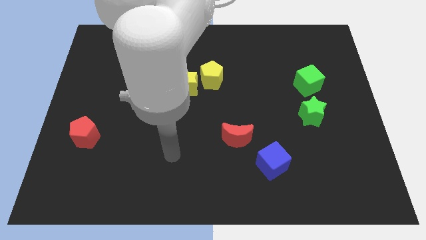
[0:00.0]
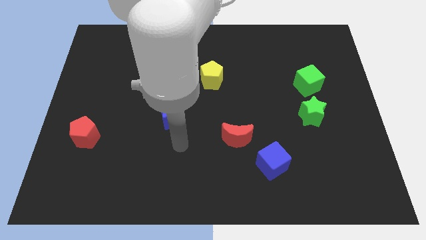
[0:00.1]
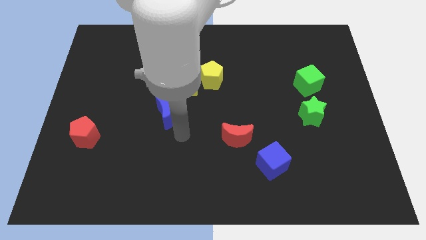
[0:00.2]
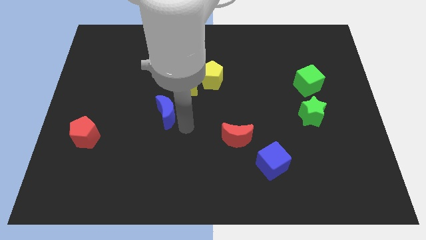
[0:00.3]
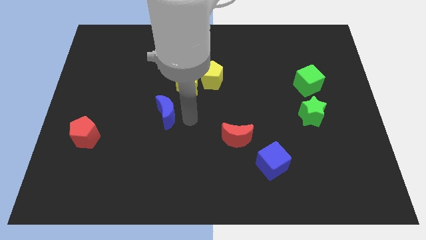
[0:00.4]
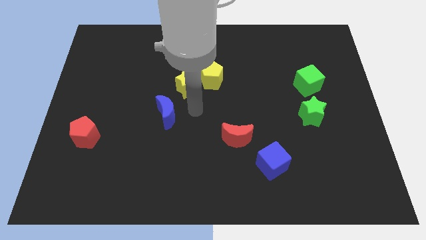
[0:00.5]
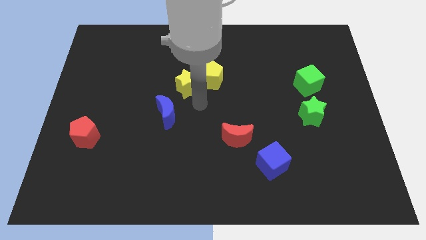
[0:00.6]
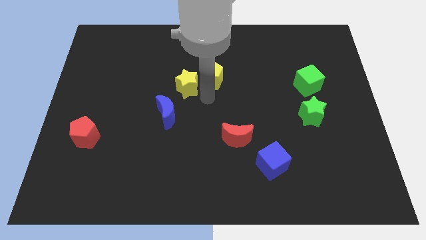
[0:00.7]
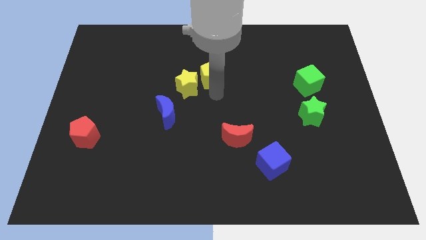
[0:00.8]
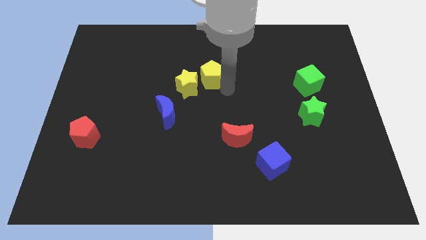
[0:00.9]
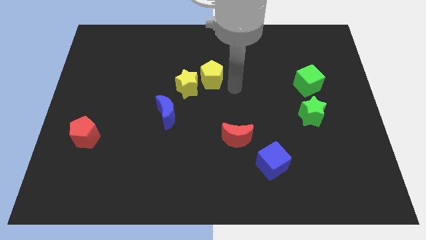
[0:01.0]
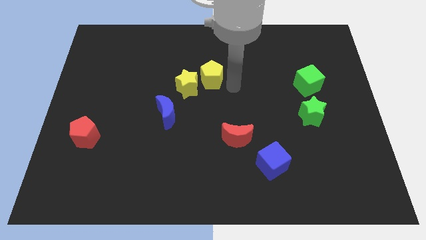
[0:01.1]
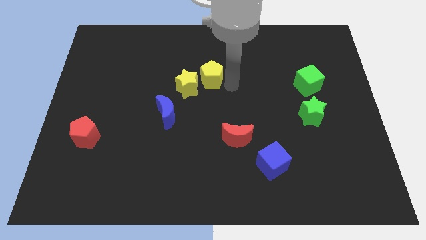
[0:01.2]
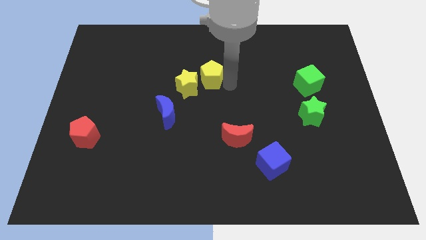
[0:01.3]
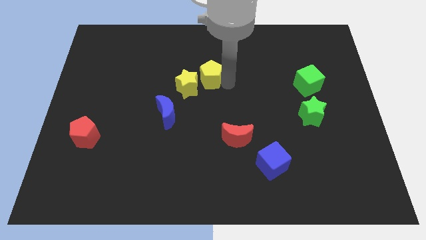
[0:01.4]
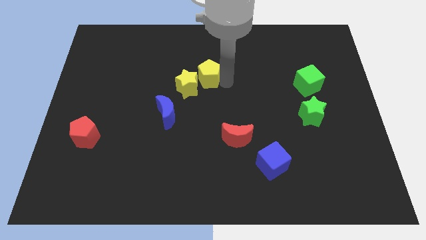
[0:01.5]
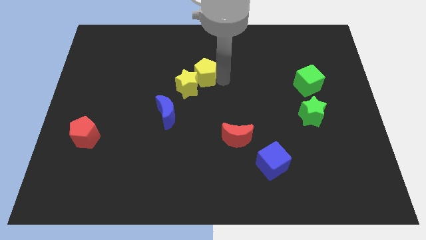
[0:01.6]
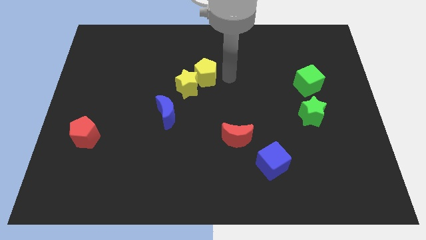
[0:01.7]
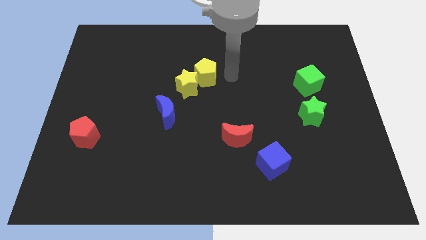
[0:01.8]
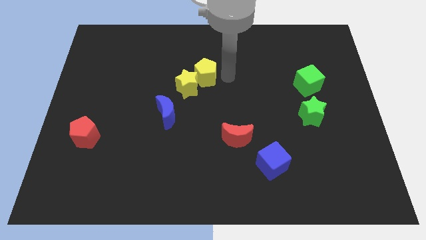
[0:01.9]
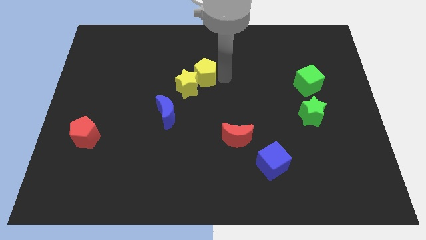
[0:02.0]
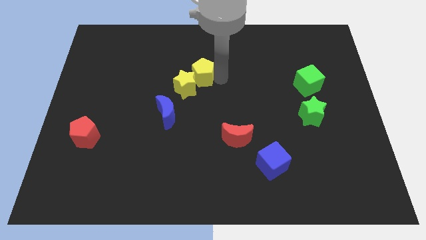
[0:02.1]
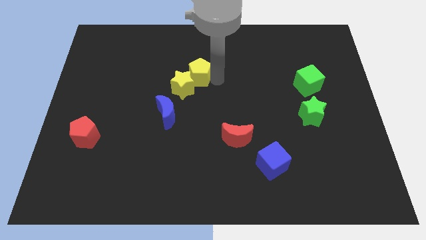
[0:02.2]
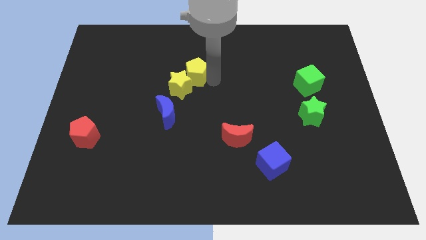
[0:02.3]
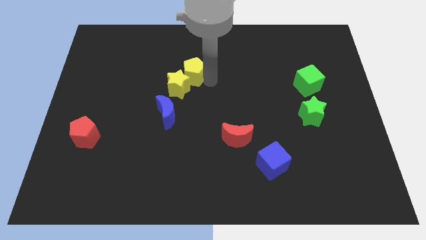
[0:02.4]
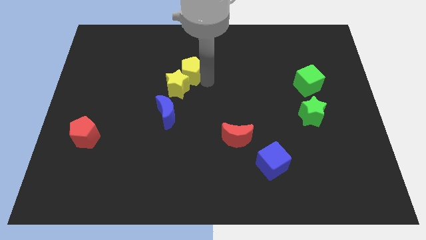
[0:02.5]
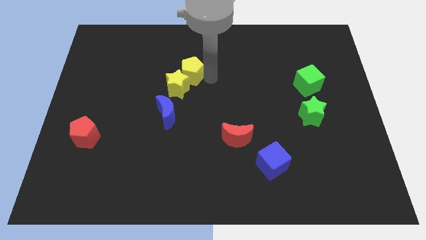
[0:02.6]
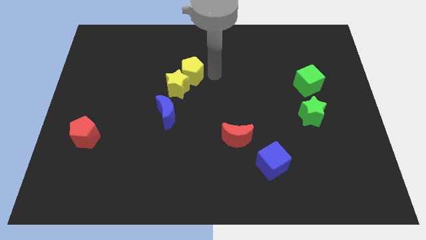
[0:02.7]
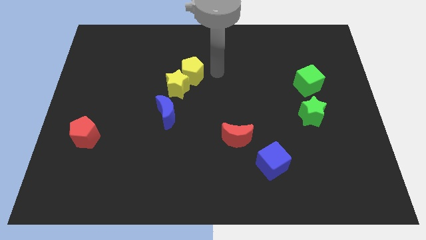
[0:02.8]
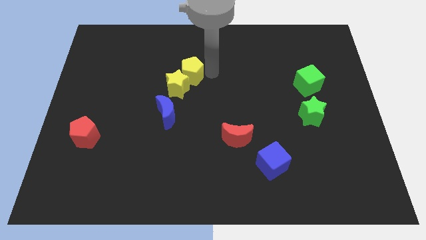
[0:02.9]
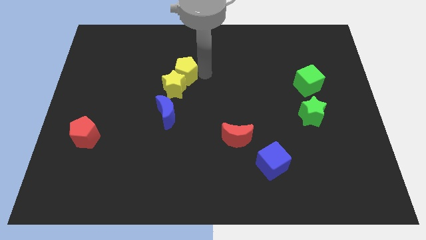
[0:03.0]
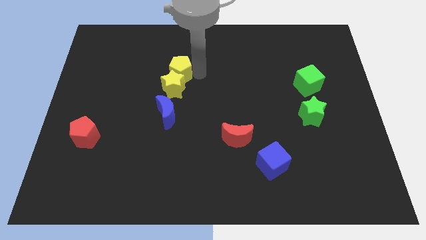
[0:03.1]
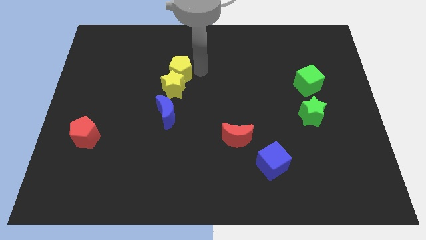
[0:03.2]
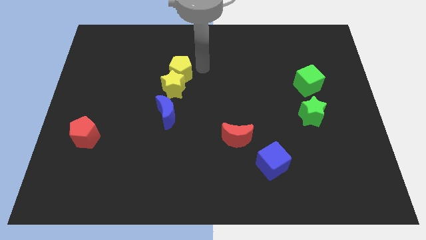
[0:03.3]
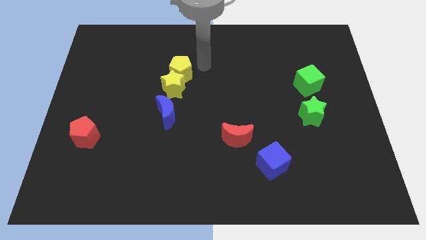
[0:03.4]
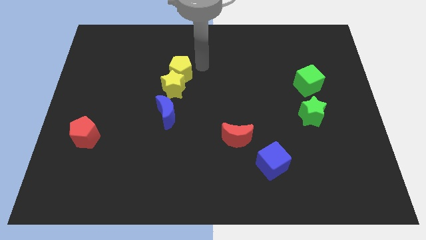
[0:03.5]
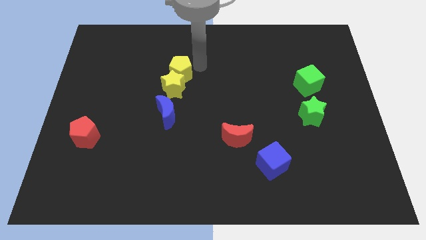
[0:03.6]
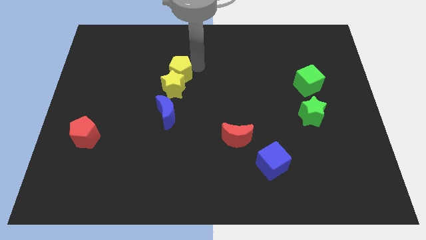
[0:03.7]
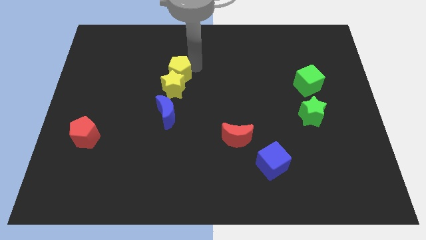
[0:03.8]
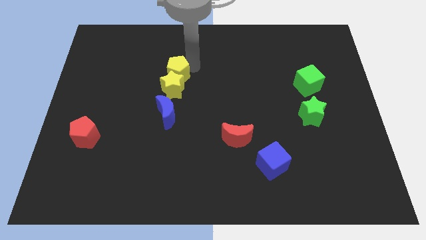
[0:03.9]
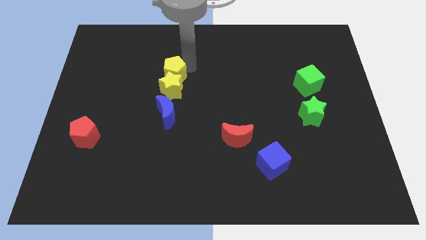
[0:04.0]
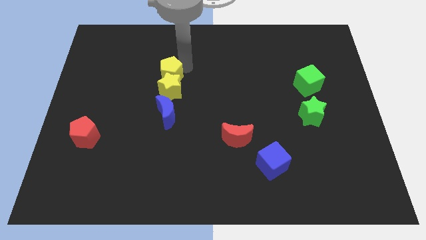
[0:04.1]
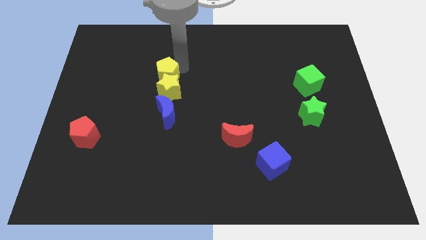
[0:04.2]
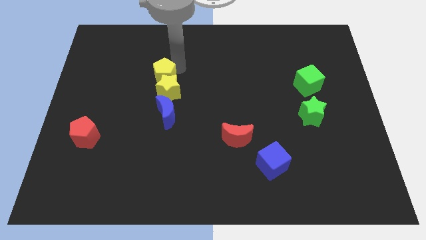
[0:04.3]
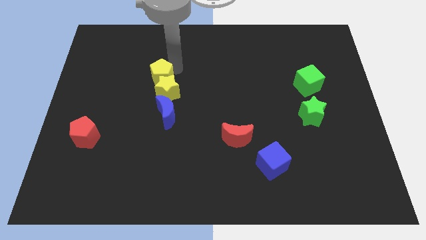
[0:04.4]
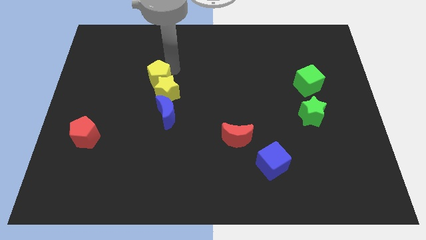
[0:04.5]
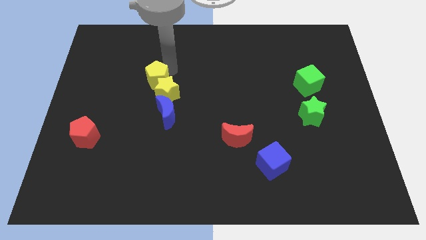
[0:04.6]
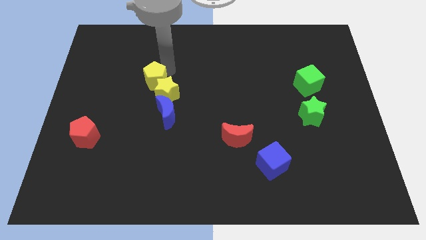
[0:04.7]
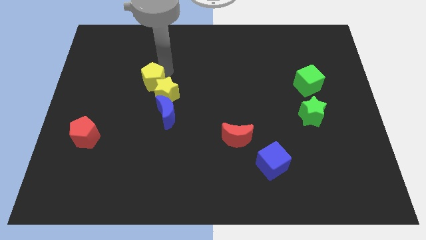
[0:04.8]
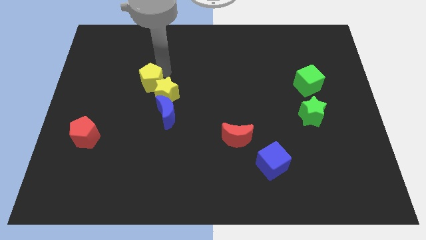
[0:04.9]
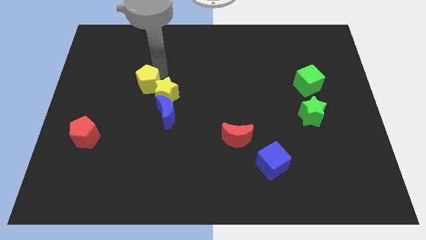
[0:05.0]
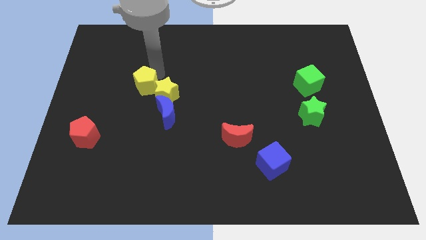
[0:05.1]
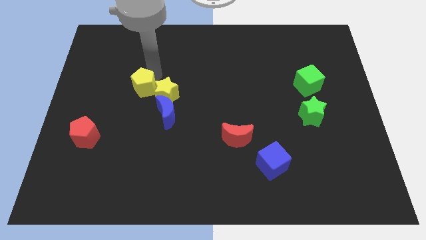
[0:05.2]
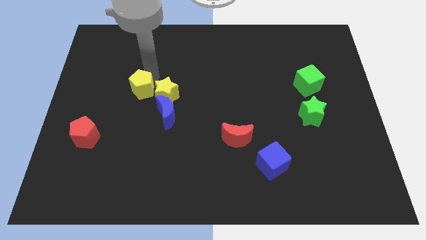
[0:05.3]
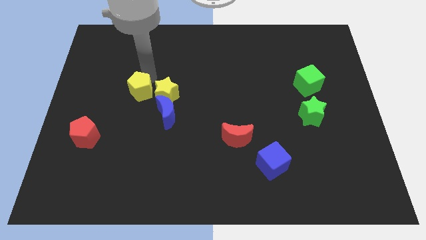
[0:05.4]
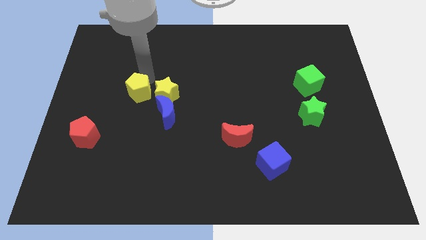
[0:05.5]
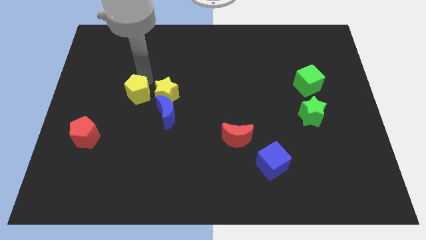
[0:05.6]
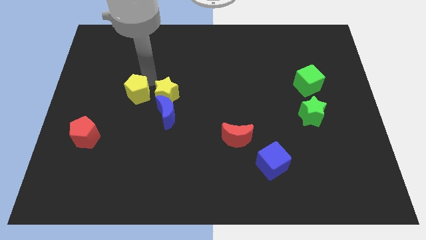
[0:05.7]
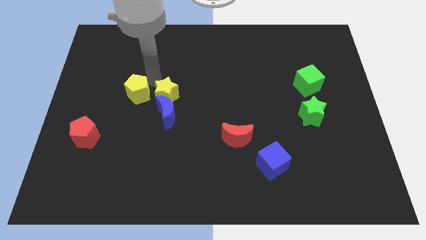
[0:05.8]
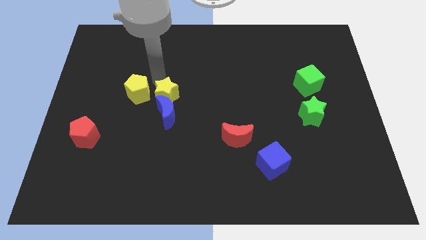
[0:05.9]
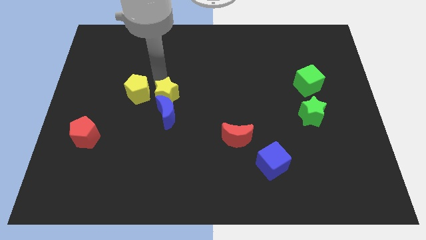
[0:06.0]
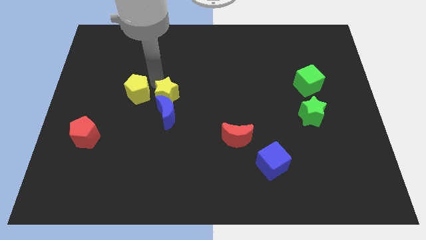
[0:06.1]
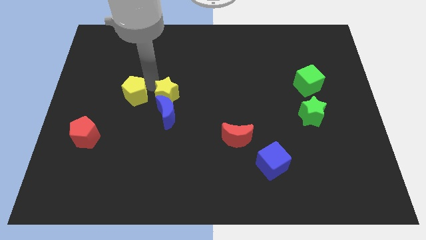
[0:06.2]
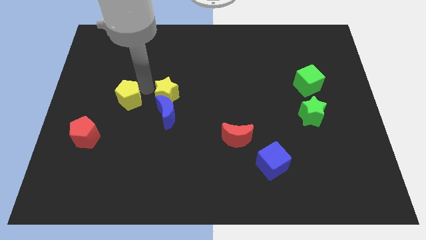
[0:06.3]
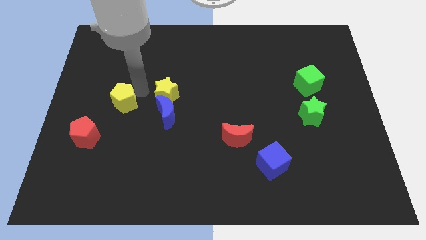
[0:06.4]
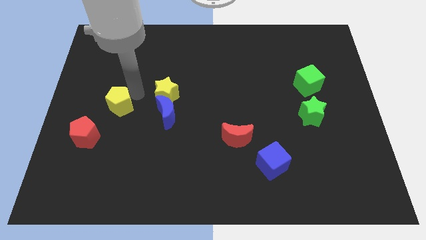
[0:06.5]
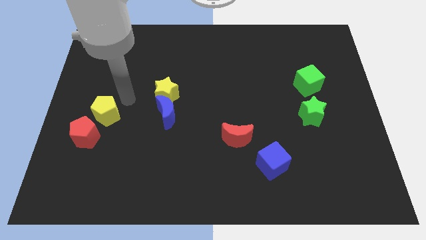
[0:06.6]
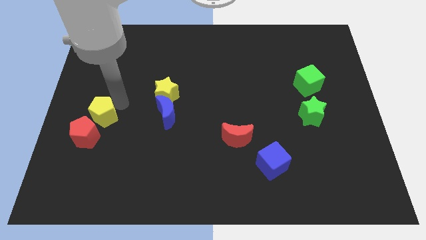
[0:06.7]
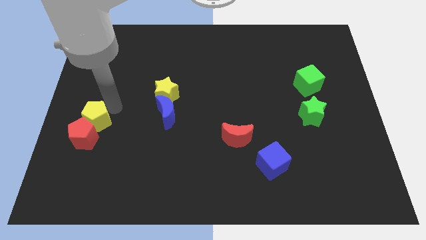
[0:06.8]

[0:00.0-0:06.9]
slide the yellow pentagon close to the red pentagon

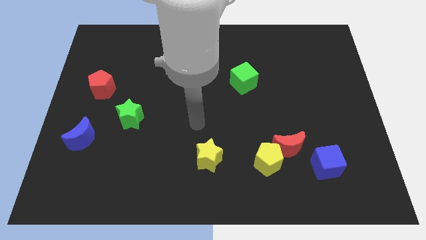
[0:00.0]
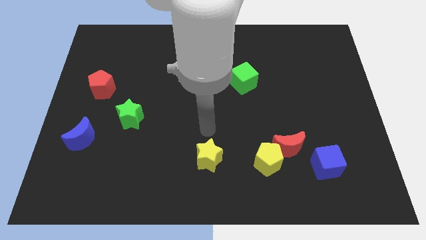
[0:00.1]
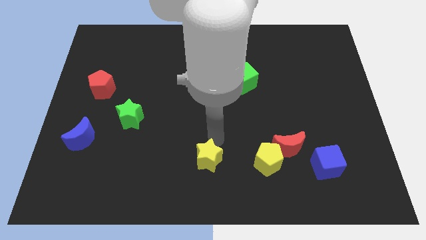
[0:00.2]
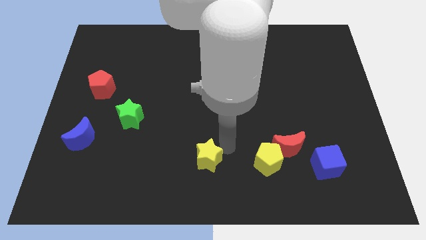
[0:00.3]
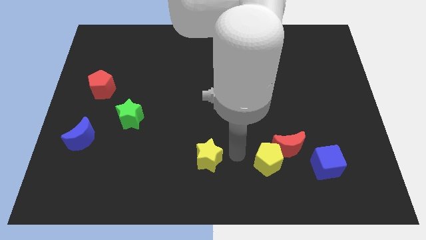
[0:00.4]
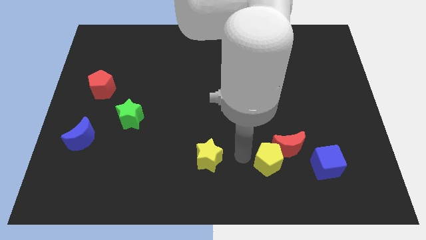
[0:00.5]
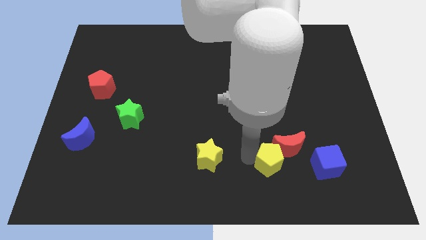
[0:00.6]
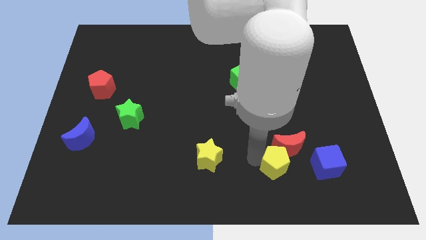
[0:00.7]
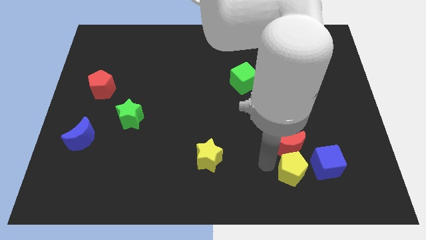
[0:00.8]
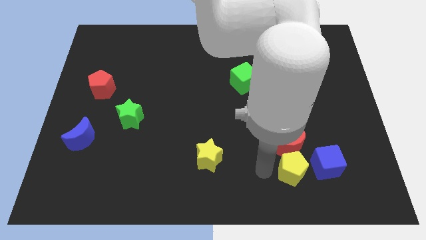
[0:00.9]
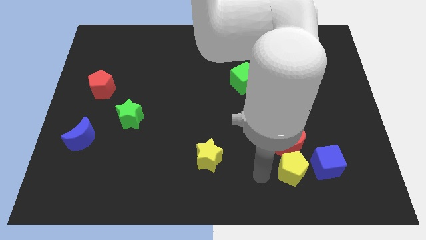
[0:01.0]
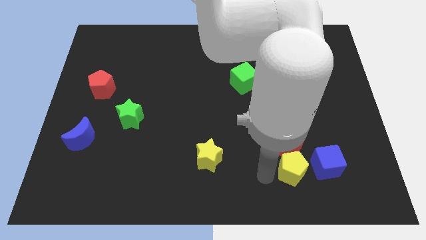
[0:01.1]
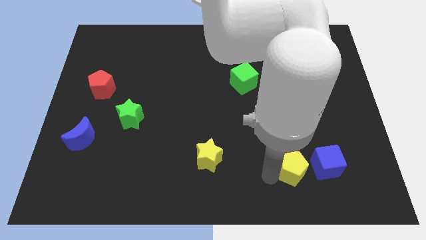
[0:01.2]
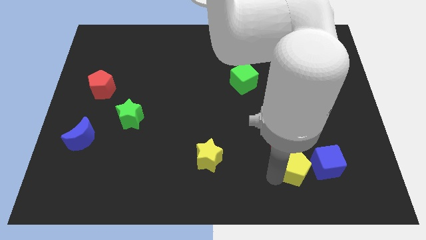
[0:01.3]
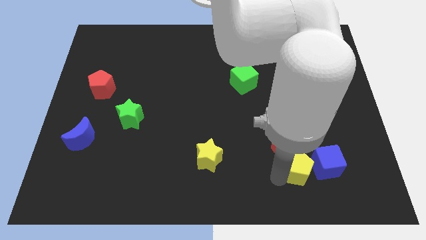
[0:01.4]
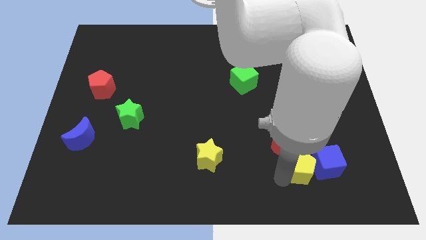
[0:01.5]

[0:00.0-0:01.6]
slide the yellow pentagon towards the blue cube
